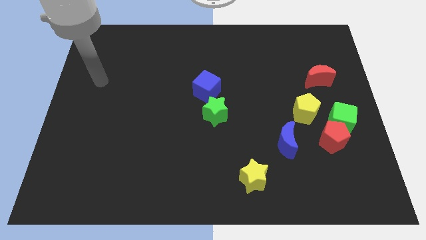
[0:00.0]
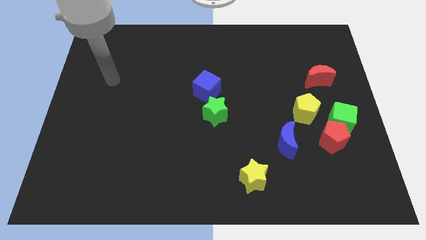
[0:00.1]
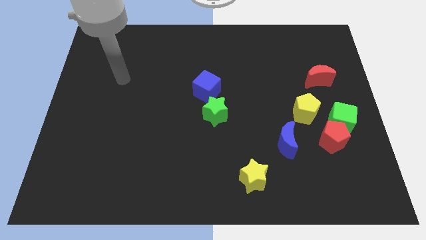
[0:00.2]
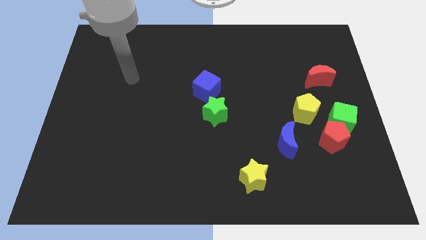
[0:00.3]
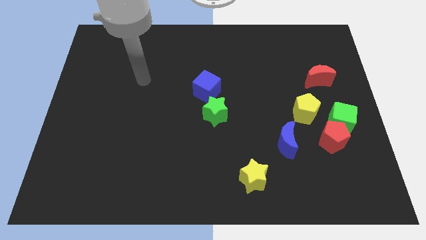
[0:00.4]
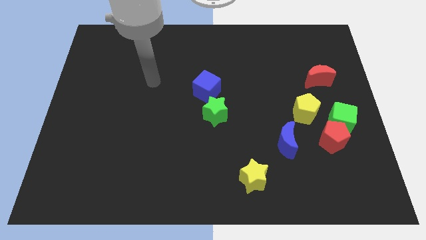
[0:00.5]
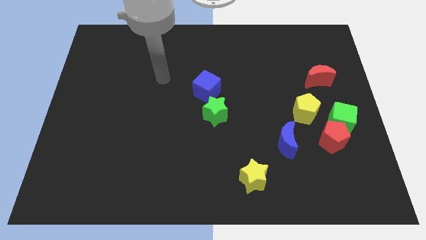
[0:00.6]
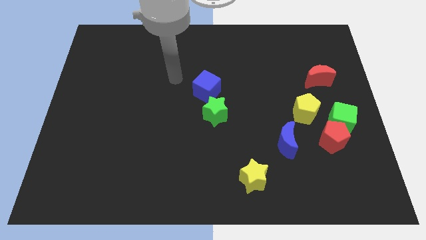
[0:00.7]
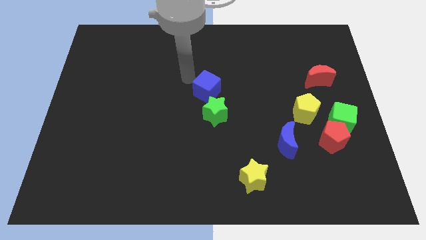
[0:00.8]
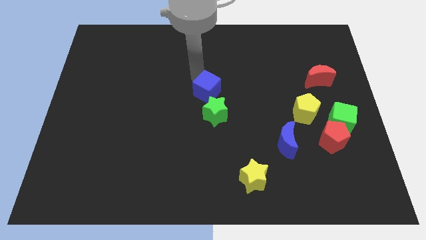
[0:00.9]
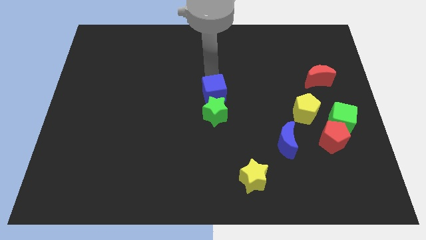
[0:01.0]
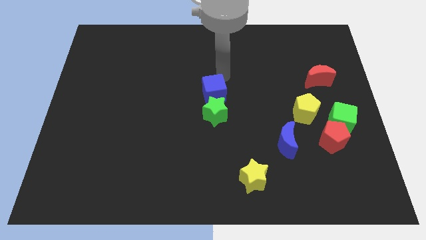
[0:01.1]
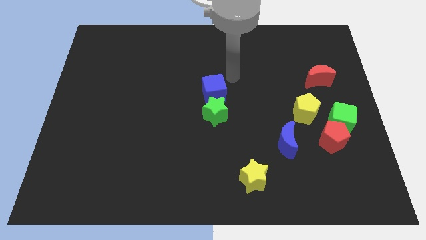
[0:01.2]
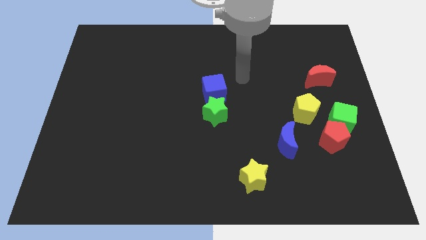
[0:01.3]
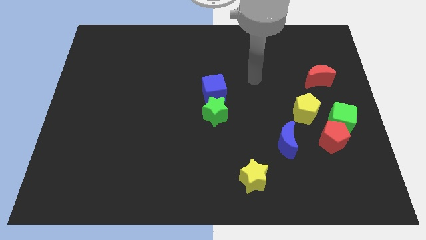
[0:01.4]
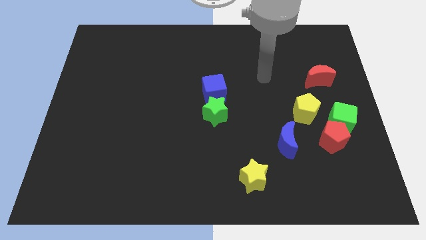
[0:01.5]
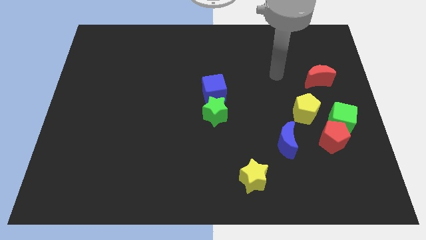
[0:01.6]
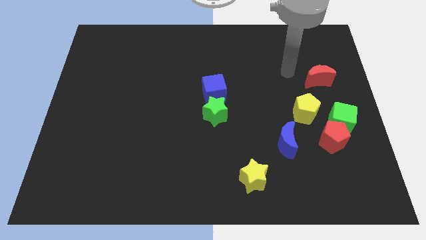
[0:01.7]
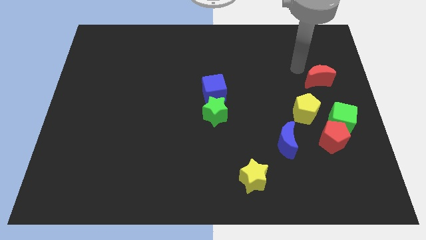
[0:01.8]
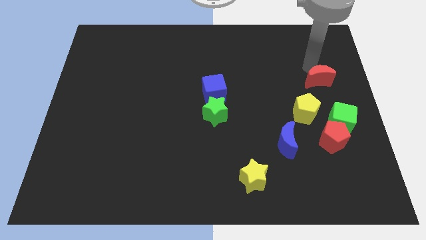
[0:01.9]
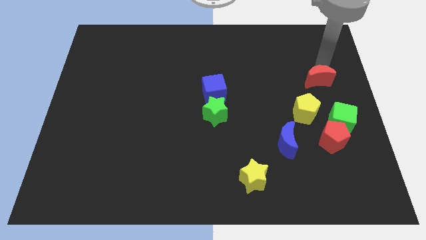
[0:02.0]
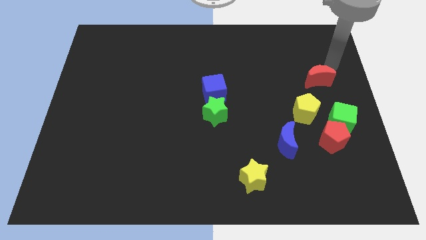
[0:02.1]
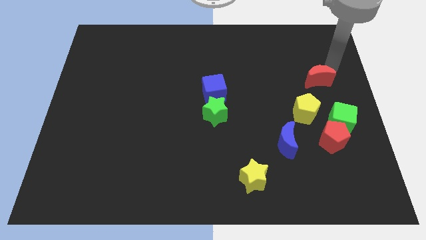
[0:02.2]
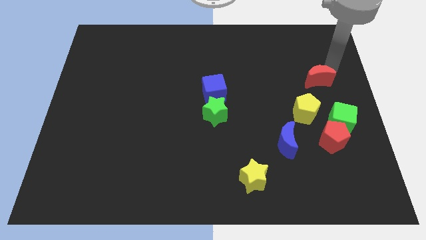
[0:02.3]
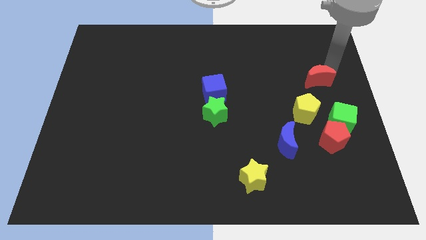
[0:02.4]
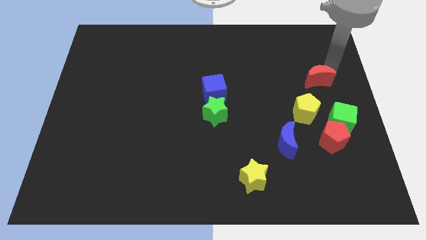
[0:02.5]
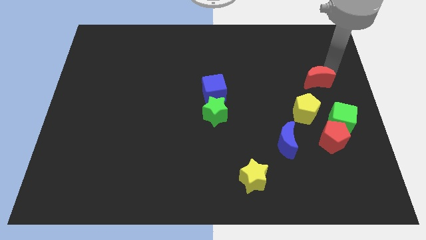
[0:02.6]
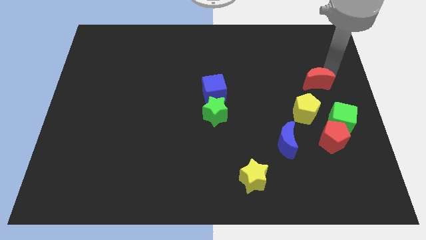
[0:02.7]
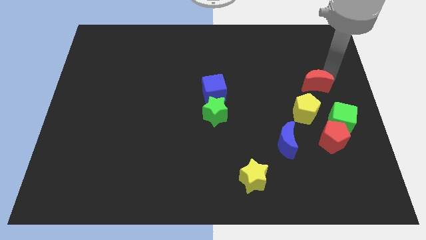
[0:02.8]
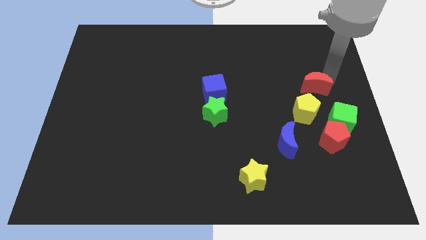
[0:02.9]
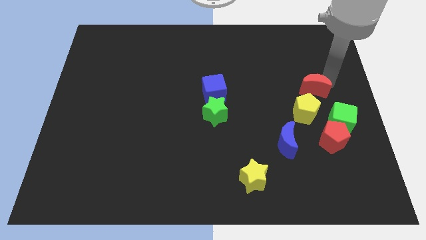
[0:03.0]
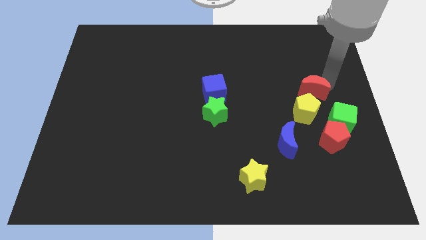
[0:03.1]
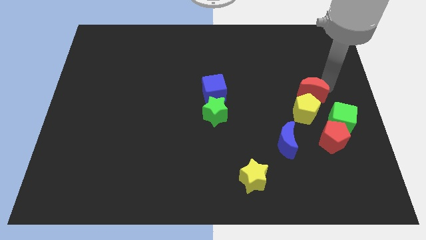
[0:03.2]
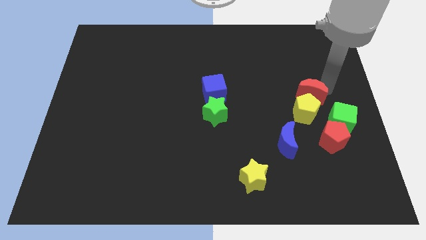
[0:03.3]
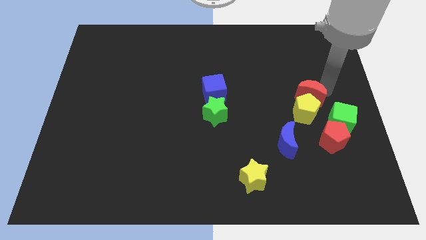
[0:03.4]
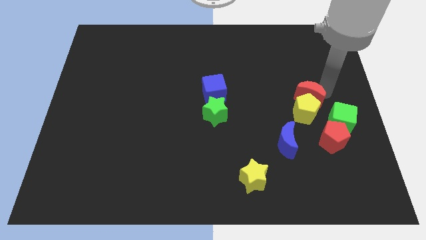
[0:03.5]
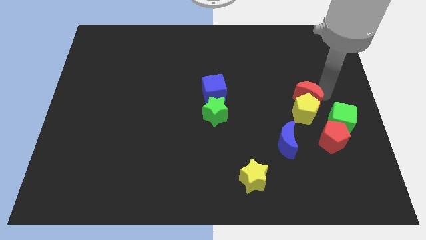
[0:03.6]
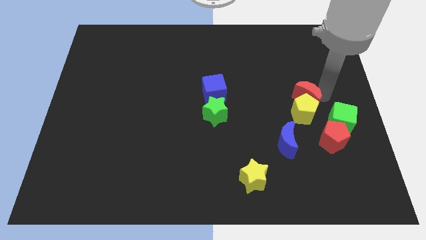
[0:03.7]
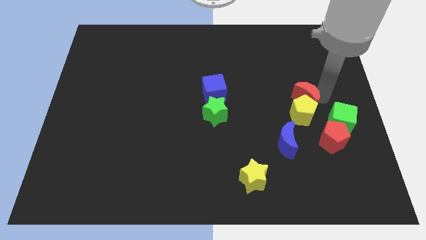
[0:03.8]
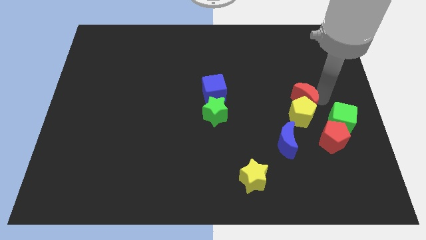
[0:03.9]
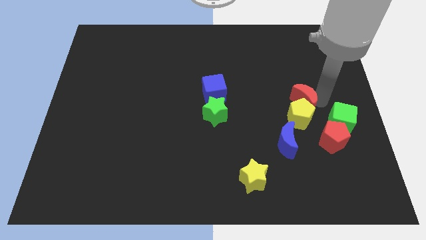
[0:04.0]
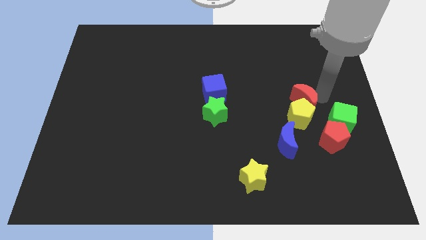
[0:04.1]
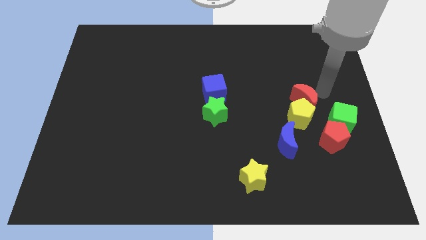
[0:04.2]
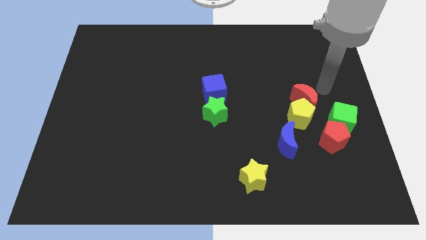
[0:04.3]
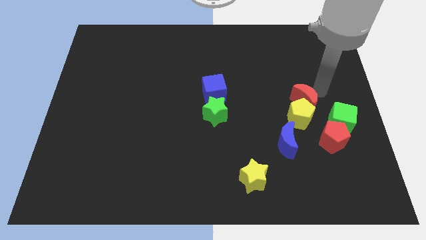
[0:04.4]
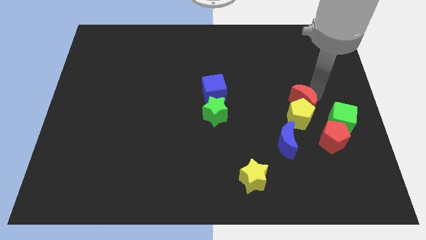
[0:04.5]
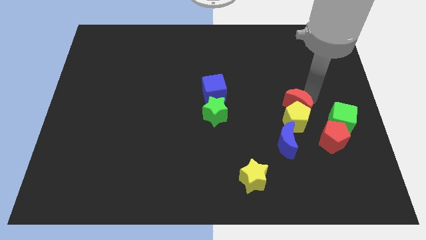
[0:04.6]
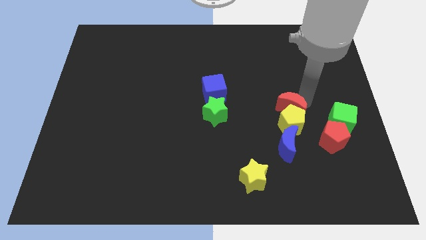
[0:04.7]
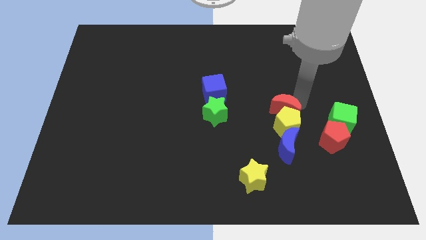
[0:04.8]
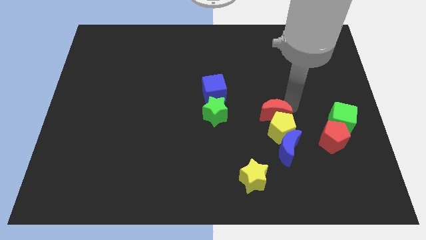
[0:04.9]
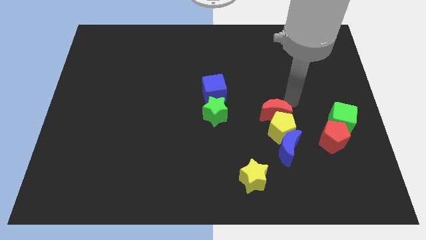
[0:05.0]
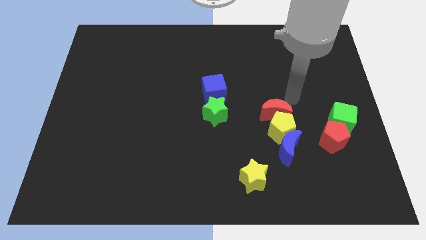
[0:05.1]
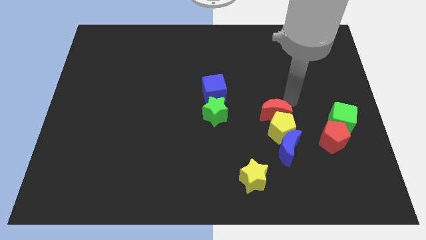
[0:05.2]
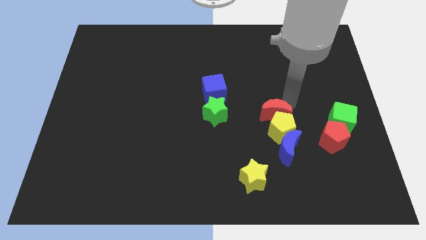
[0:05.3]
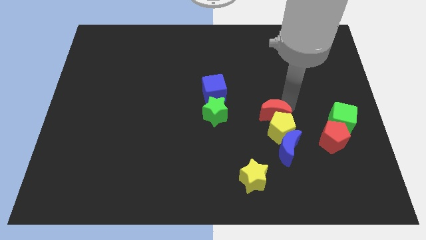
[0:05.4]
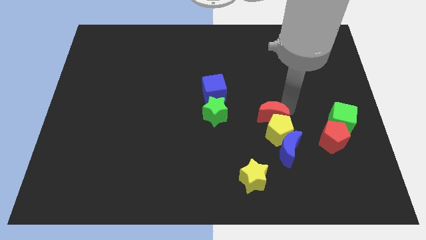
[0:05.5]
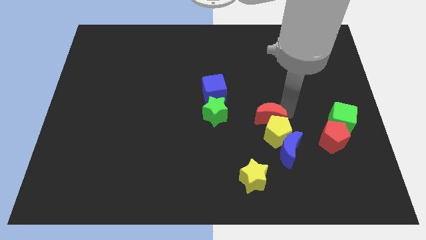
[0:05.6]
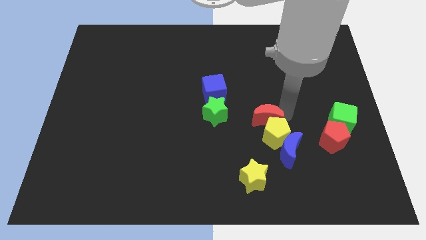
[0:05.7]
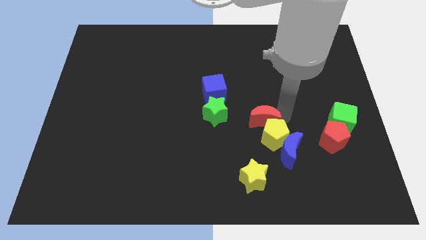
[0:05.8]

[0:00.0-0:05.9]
slide the red moon to the top side of the yellow star

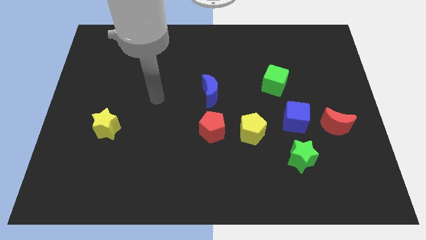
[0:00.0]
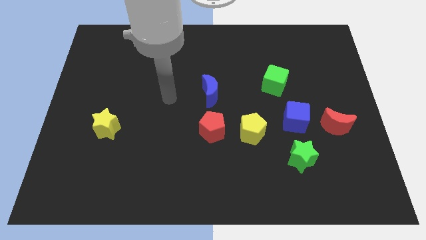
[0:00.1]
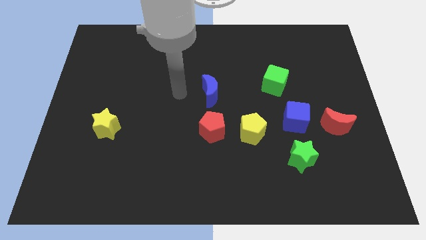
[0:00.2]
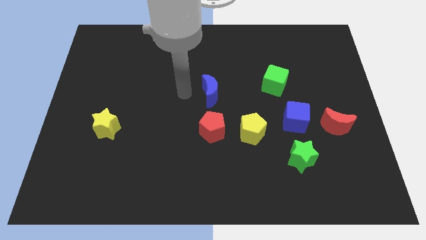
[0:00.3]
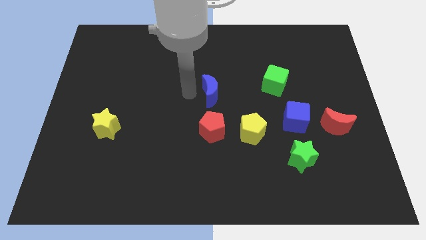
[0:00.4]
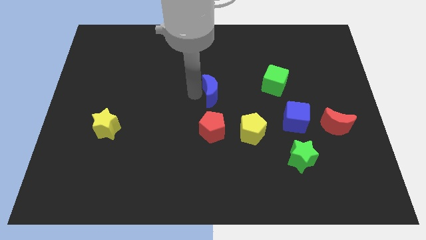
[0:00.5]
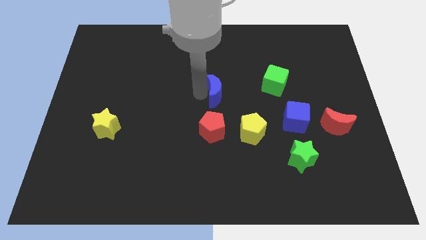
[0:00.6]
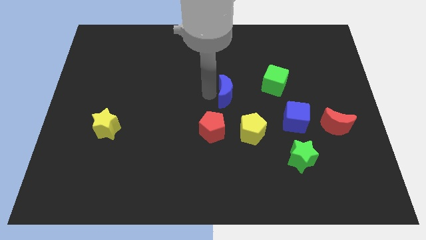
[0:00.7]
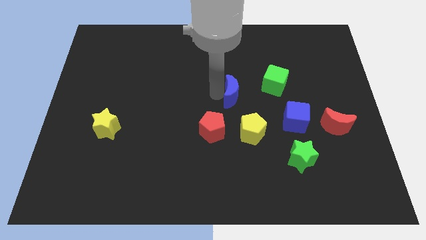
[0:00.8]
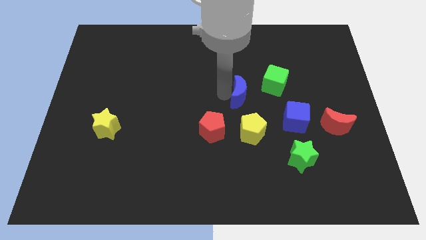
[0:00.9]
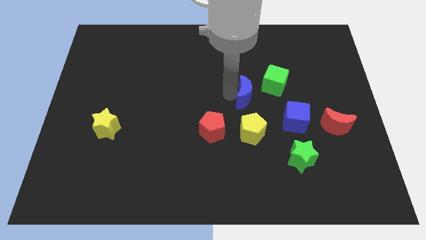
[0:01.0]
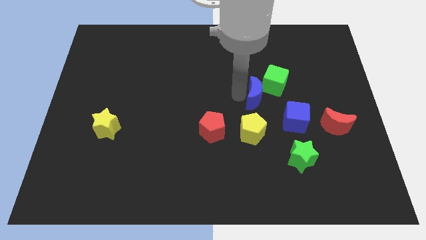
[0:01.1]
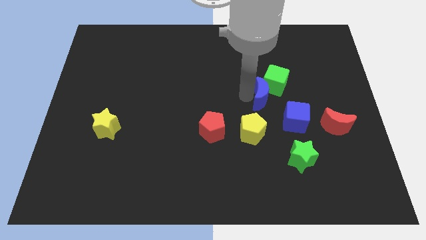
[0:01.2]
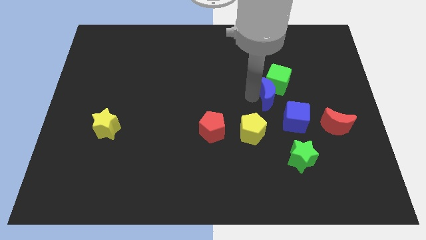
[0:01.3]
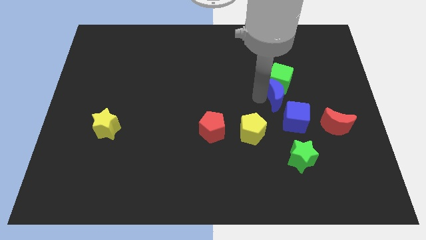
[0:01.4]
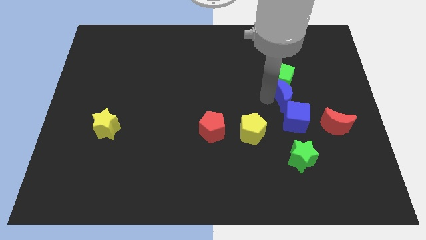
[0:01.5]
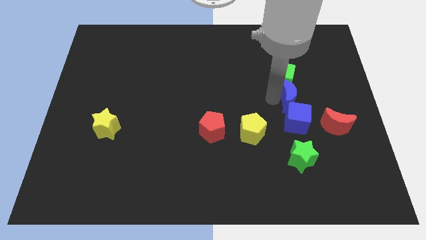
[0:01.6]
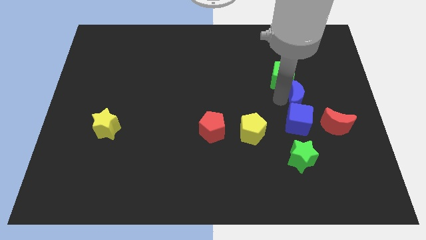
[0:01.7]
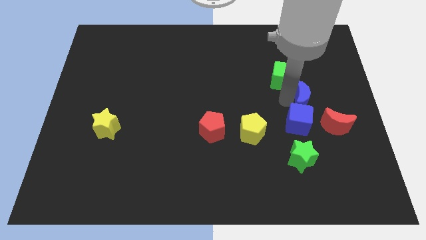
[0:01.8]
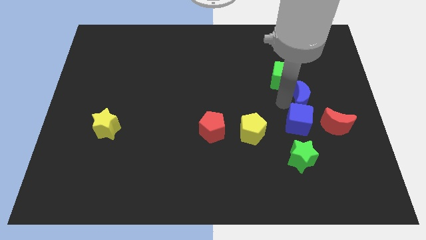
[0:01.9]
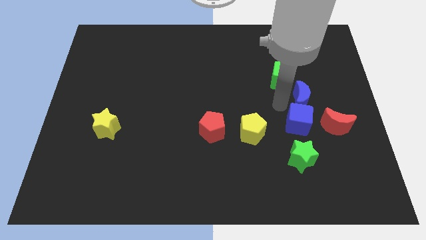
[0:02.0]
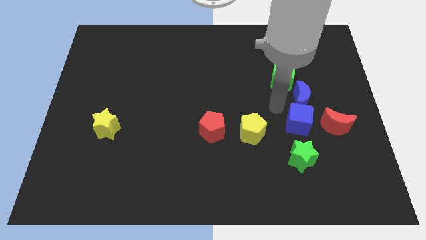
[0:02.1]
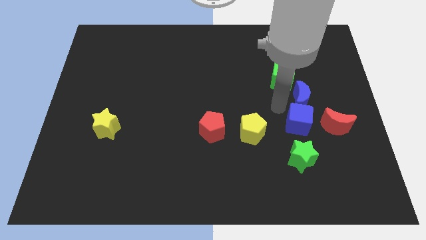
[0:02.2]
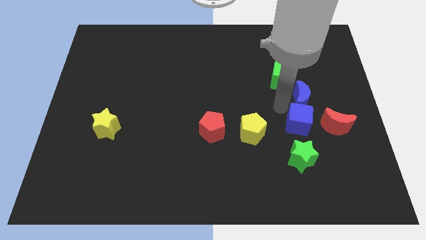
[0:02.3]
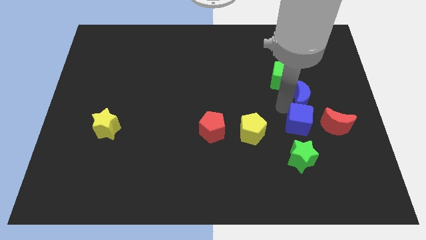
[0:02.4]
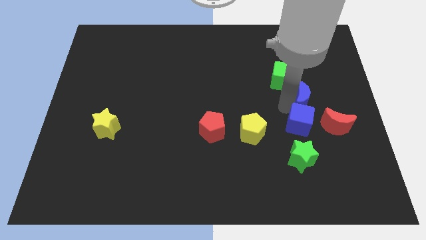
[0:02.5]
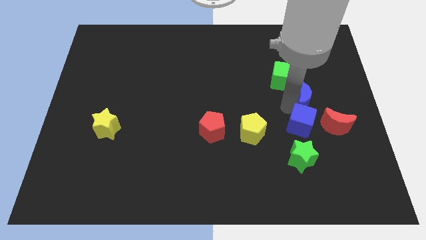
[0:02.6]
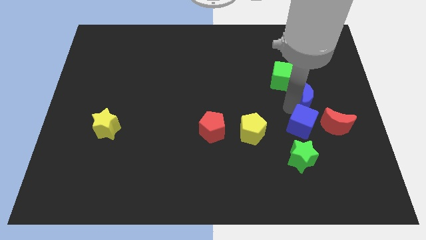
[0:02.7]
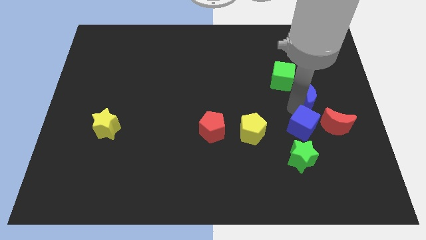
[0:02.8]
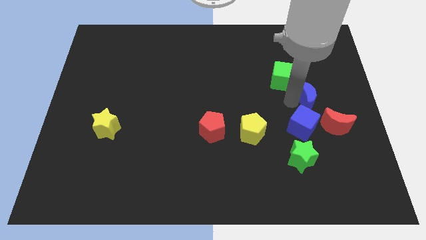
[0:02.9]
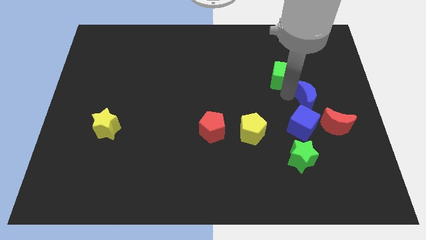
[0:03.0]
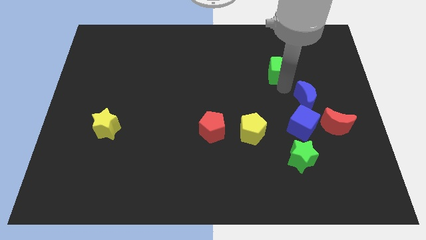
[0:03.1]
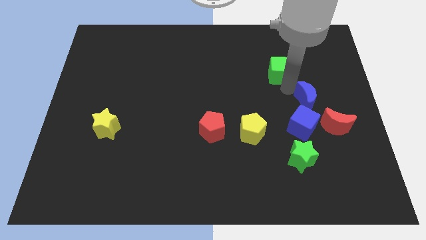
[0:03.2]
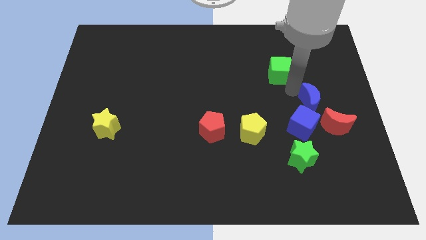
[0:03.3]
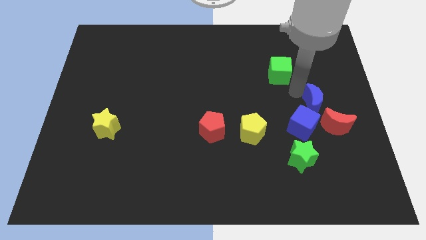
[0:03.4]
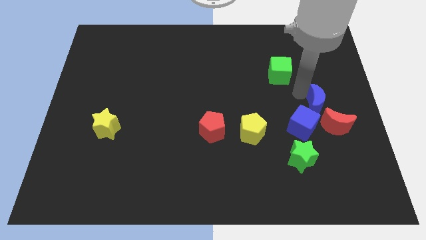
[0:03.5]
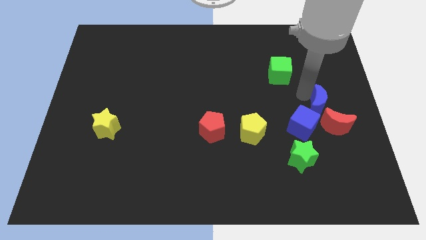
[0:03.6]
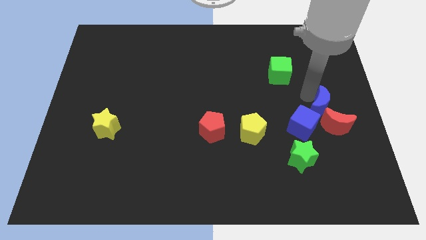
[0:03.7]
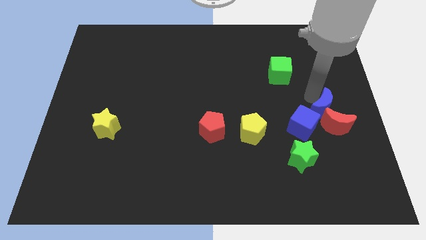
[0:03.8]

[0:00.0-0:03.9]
slide the blue moon right of the blue cube
